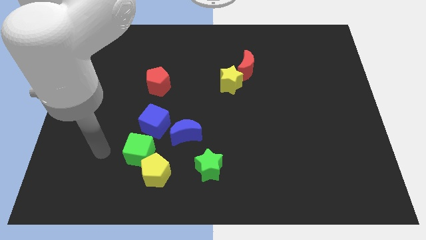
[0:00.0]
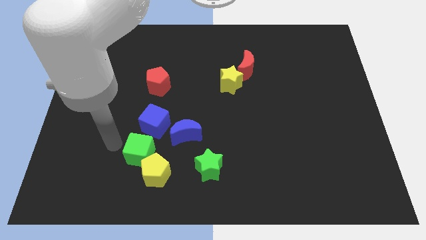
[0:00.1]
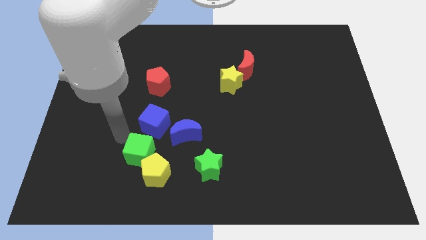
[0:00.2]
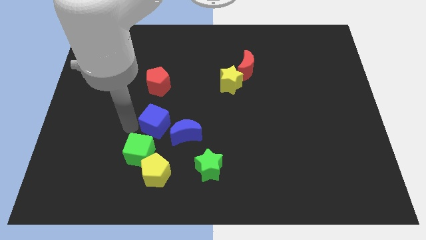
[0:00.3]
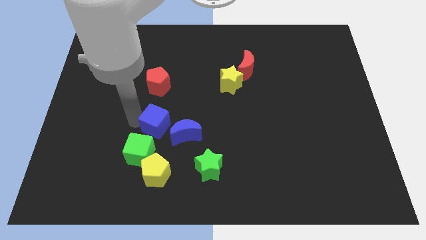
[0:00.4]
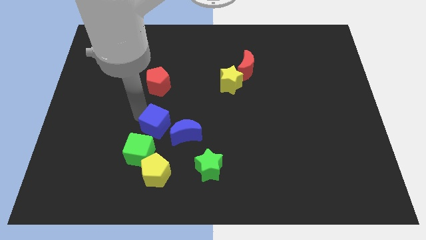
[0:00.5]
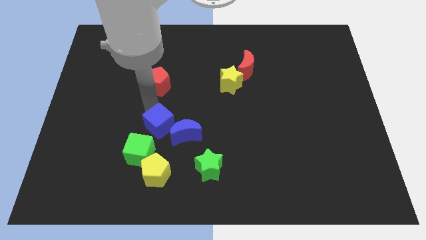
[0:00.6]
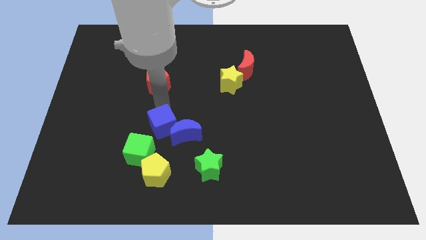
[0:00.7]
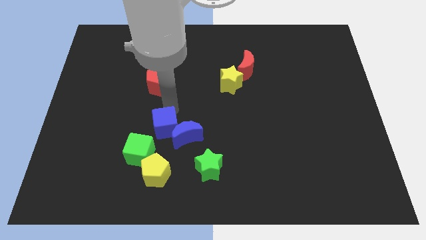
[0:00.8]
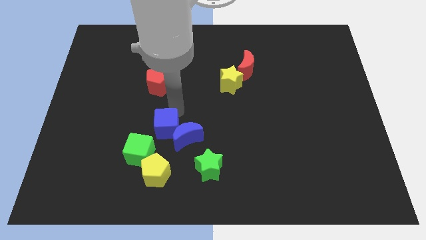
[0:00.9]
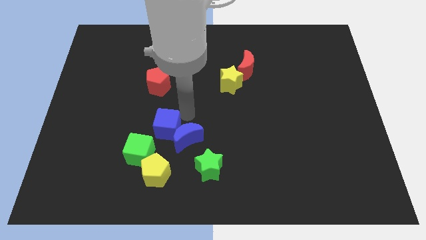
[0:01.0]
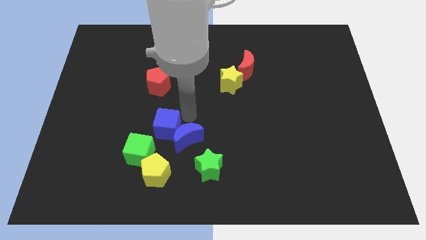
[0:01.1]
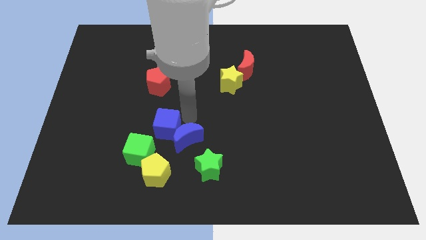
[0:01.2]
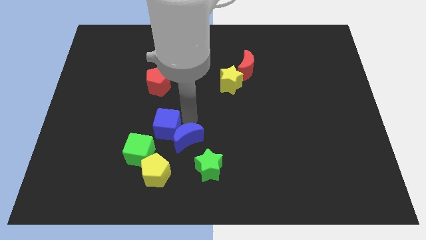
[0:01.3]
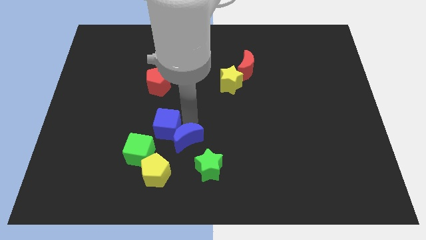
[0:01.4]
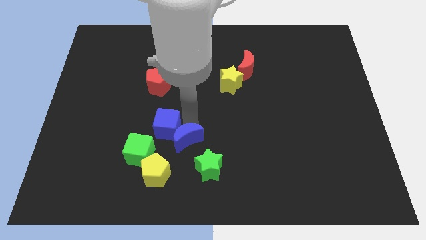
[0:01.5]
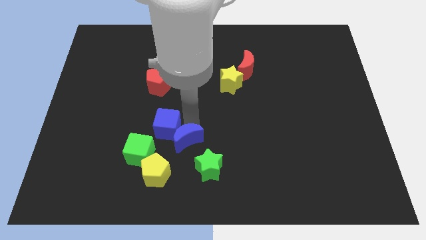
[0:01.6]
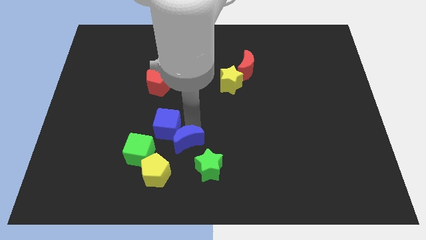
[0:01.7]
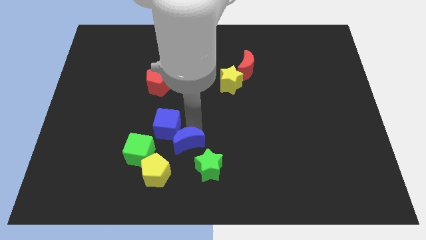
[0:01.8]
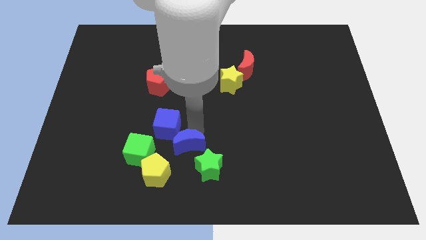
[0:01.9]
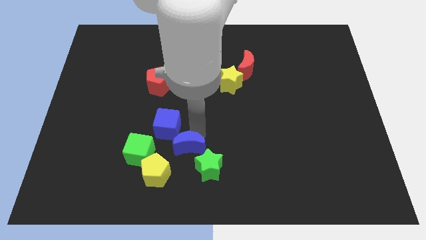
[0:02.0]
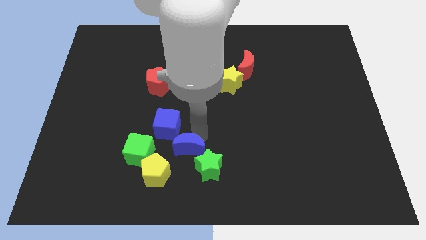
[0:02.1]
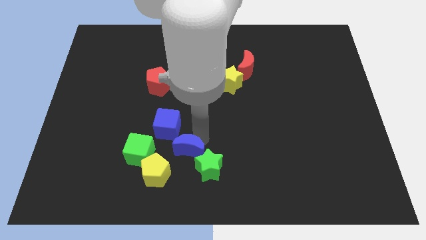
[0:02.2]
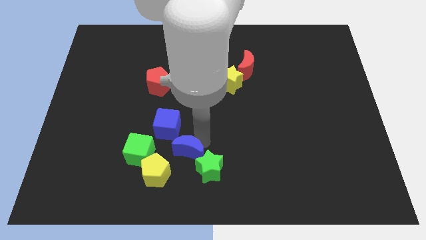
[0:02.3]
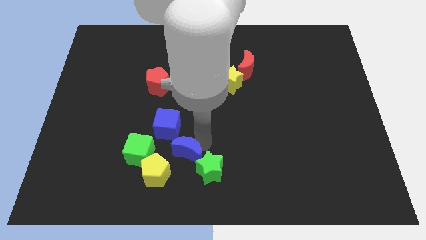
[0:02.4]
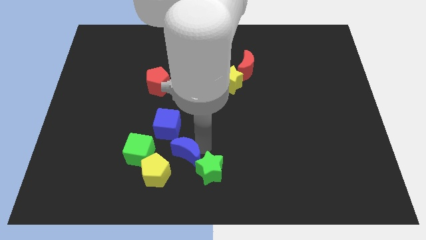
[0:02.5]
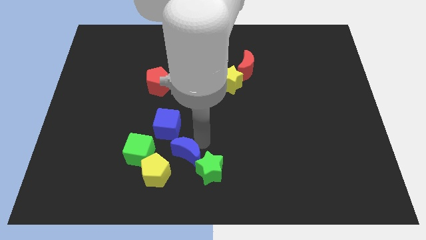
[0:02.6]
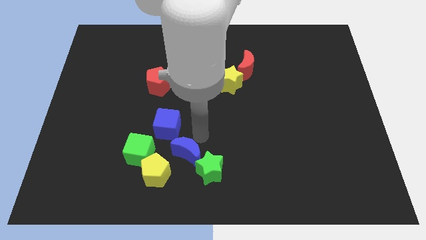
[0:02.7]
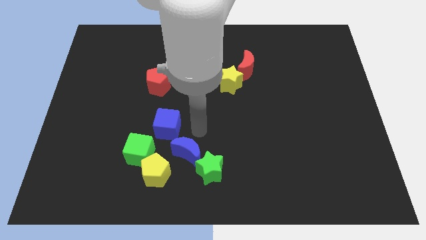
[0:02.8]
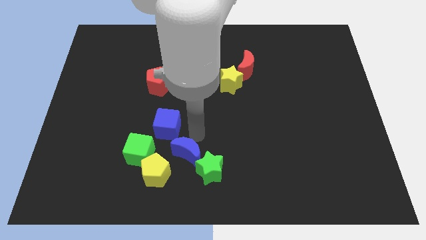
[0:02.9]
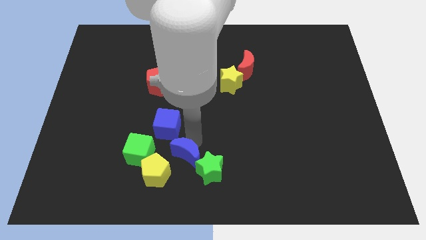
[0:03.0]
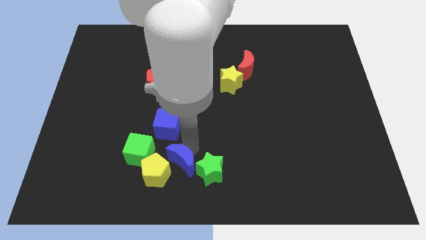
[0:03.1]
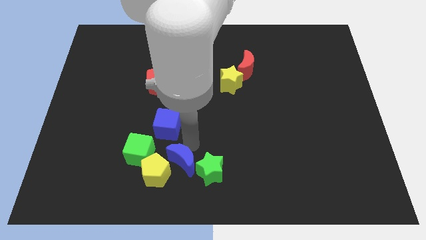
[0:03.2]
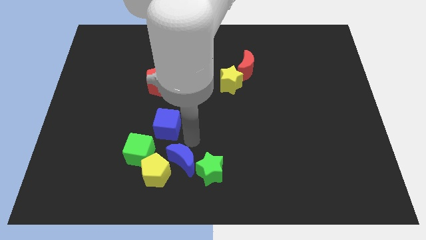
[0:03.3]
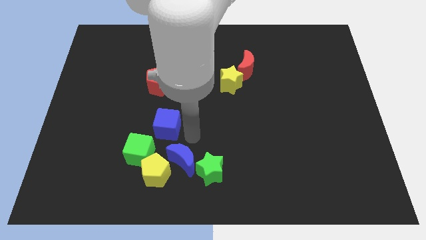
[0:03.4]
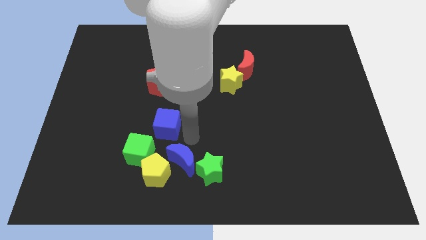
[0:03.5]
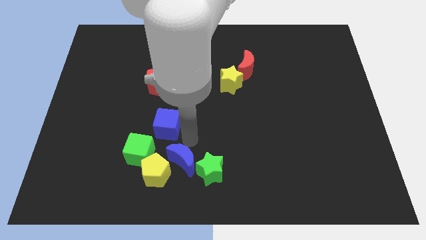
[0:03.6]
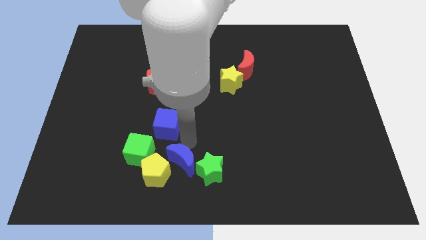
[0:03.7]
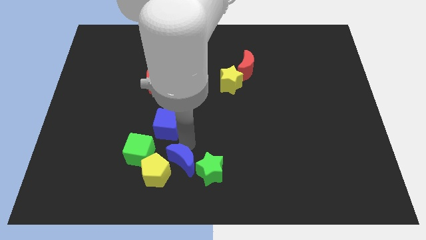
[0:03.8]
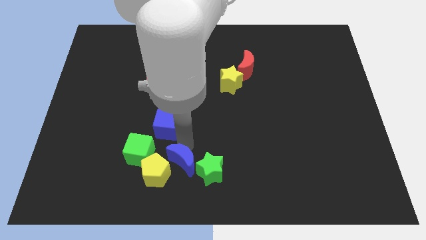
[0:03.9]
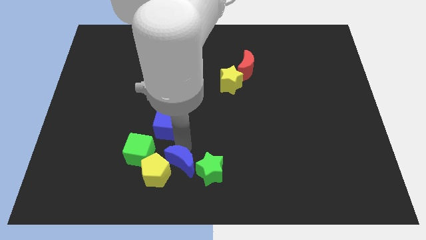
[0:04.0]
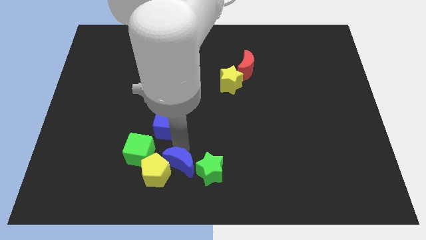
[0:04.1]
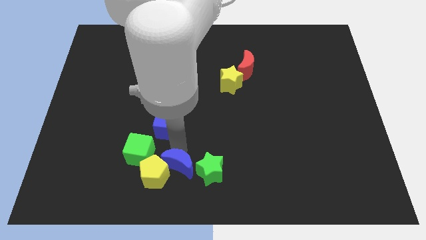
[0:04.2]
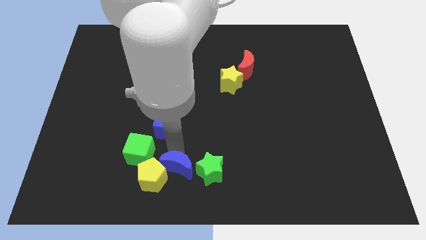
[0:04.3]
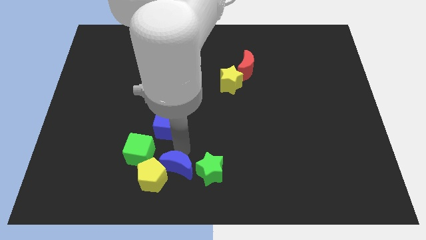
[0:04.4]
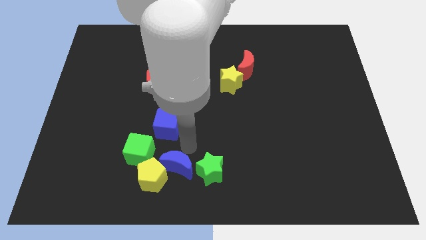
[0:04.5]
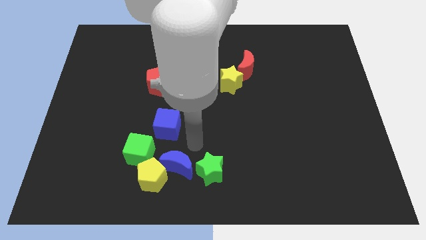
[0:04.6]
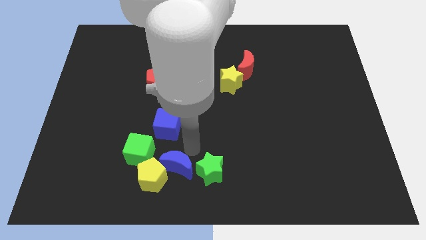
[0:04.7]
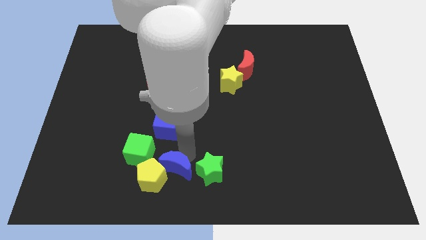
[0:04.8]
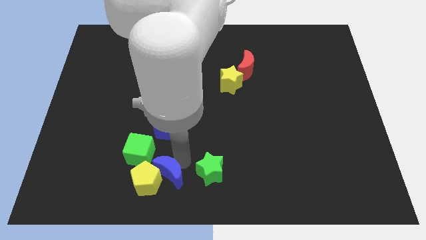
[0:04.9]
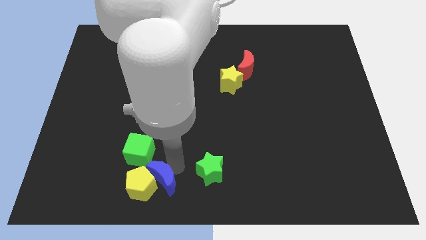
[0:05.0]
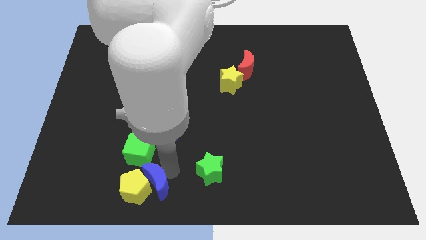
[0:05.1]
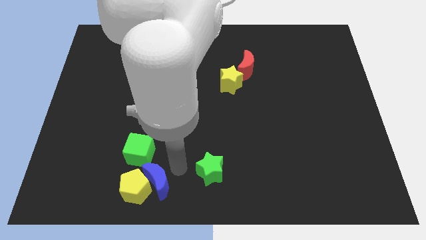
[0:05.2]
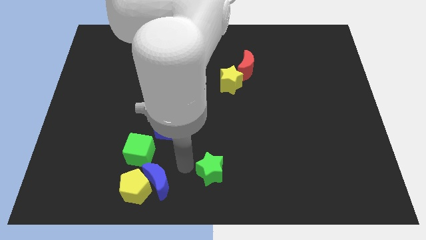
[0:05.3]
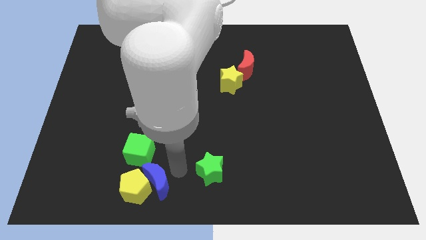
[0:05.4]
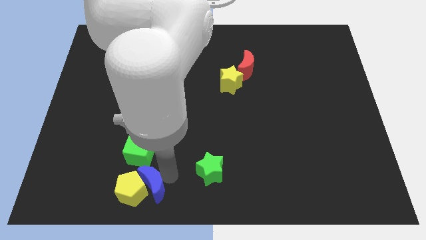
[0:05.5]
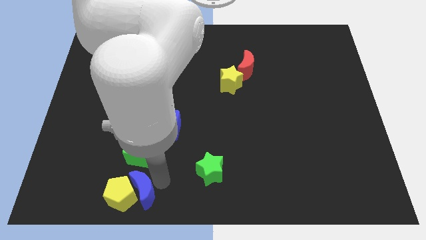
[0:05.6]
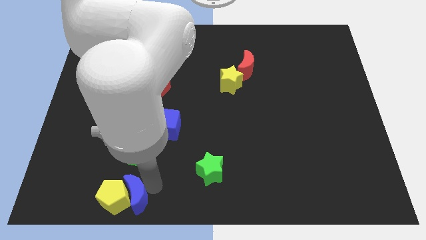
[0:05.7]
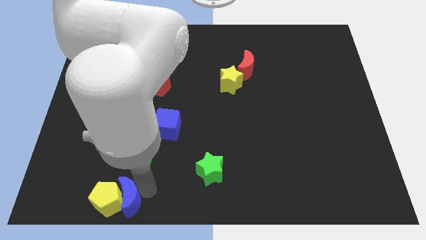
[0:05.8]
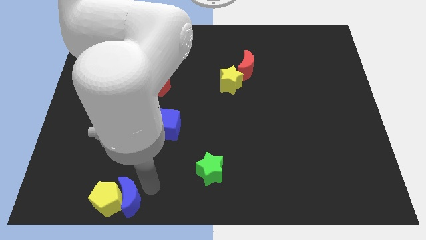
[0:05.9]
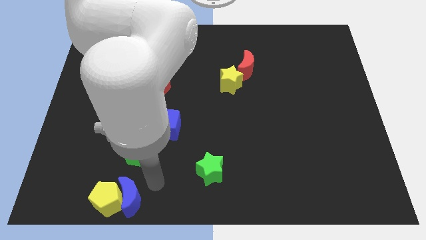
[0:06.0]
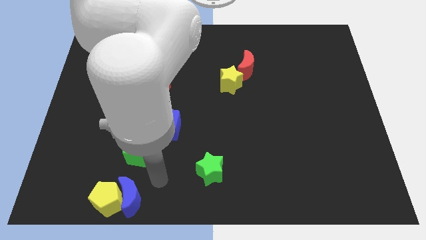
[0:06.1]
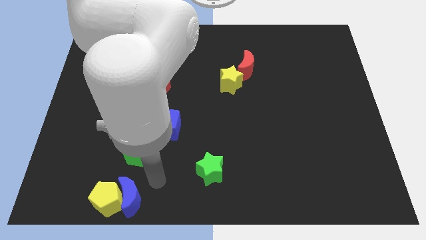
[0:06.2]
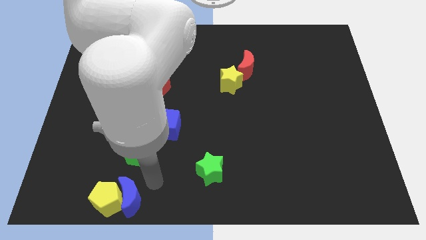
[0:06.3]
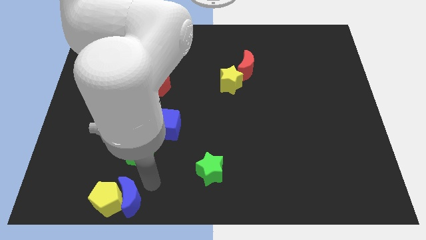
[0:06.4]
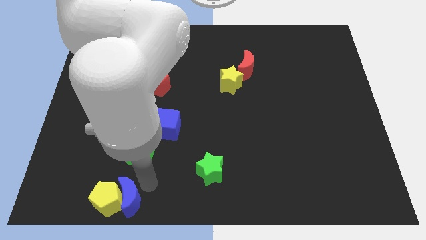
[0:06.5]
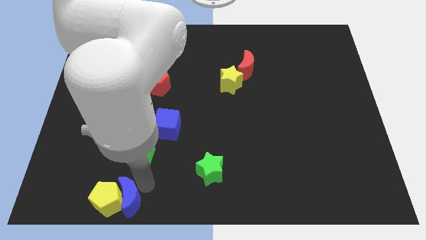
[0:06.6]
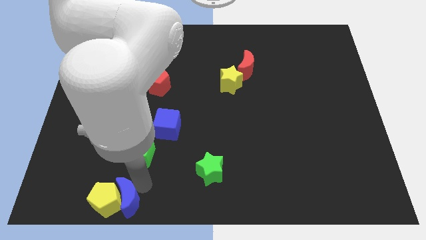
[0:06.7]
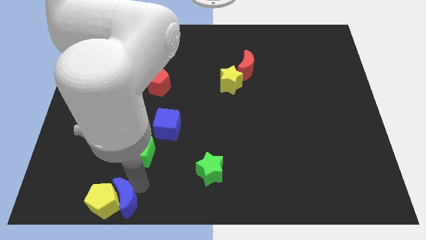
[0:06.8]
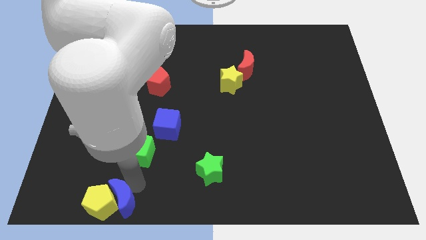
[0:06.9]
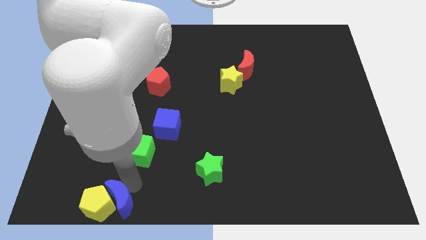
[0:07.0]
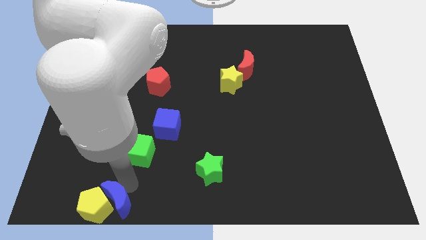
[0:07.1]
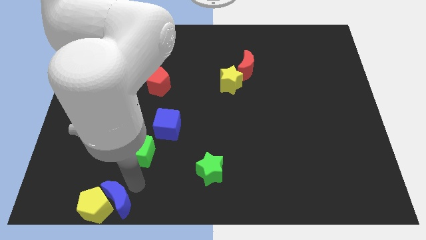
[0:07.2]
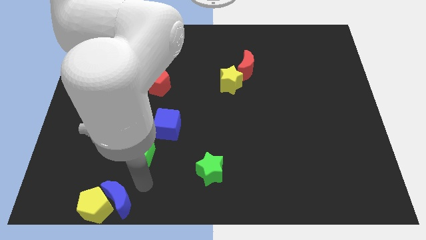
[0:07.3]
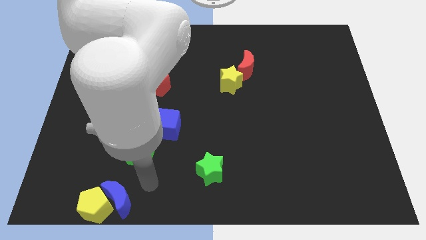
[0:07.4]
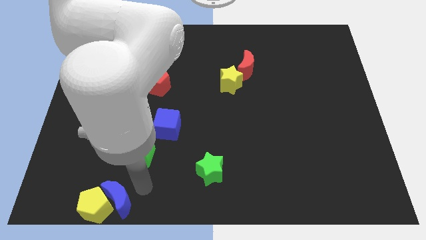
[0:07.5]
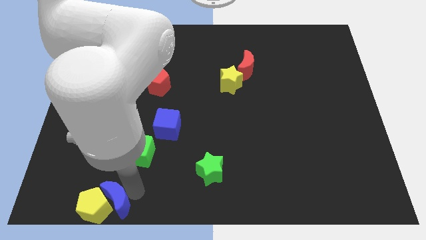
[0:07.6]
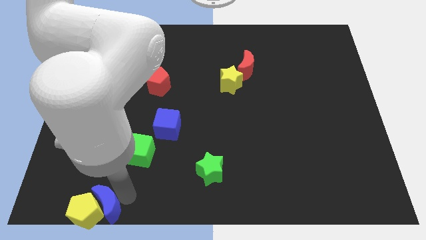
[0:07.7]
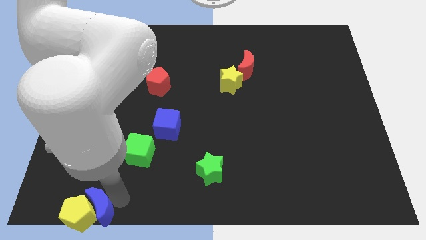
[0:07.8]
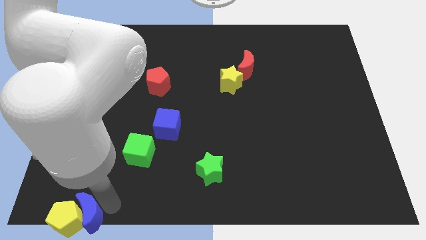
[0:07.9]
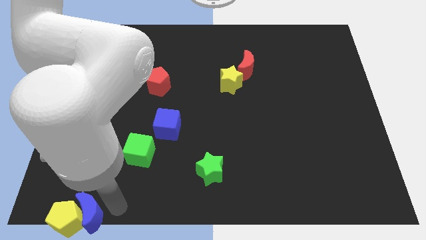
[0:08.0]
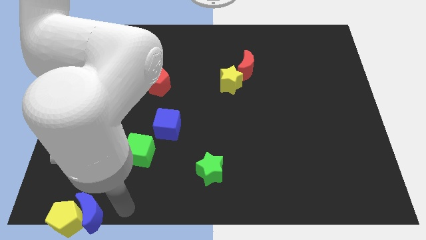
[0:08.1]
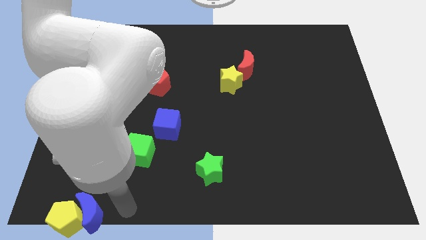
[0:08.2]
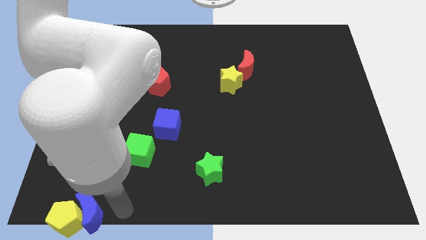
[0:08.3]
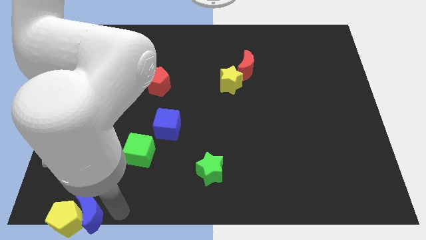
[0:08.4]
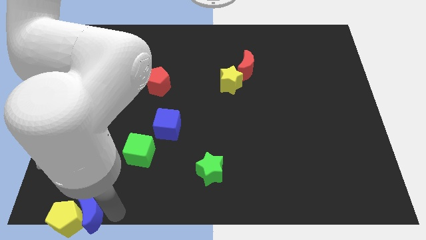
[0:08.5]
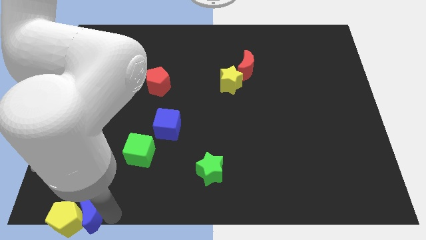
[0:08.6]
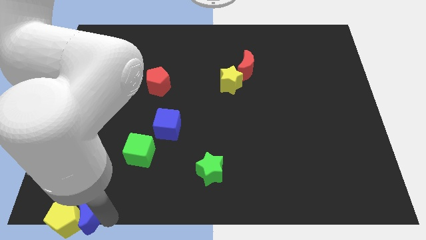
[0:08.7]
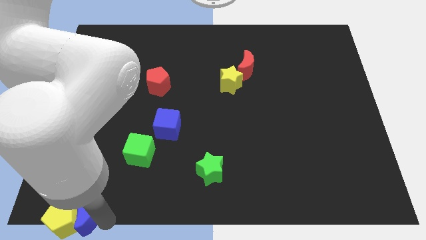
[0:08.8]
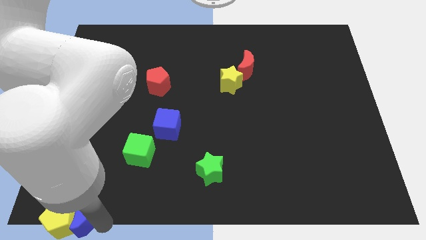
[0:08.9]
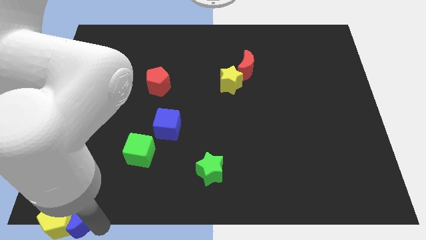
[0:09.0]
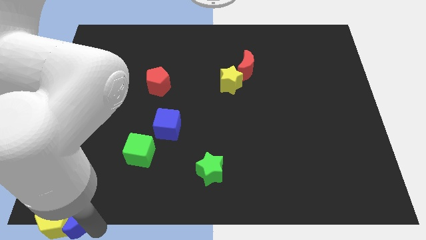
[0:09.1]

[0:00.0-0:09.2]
push the blue moon to the bottom left of the board
